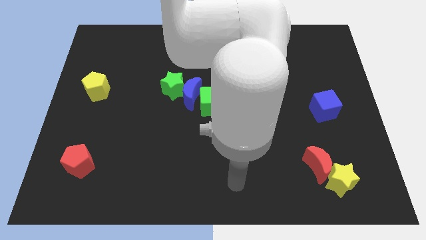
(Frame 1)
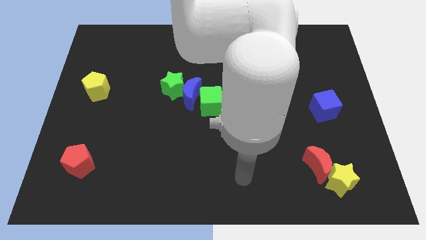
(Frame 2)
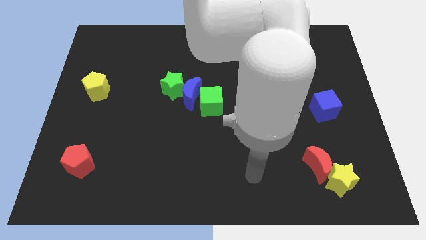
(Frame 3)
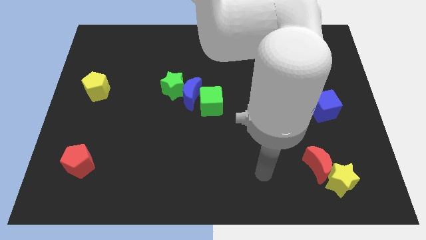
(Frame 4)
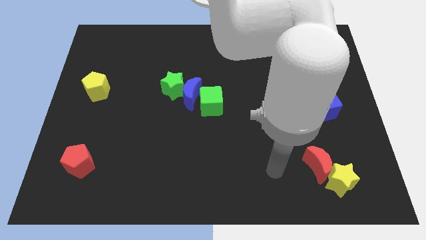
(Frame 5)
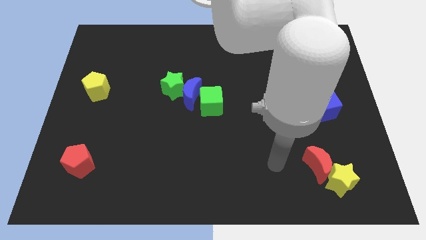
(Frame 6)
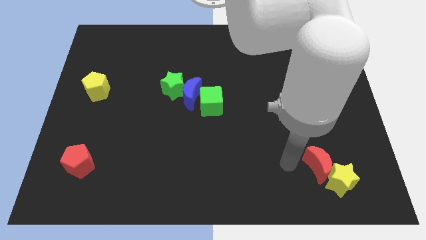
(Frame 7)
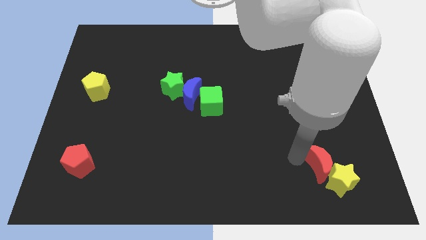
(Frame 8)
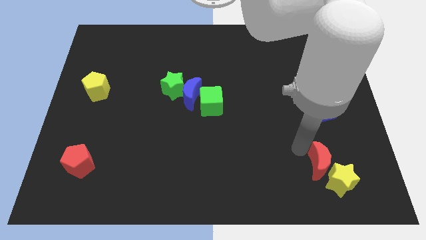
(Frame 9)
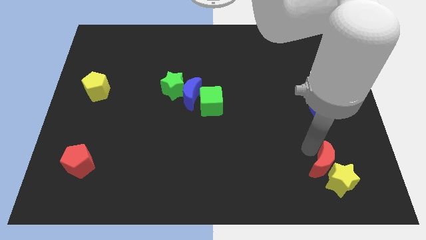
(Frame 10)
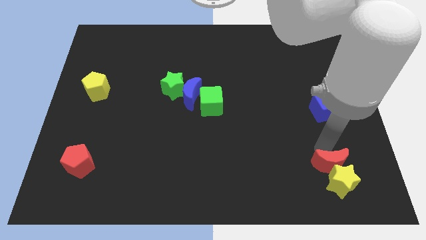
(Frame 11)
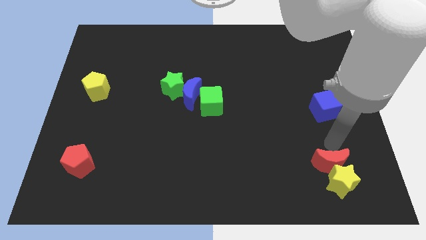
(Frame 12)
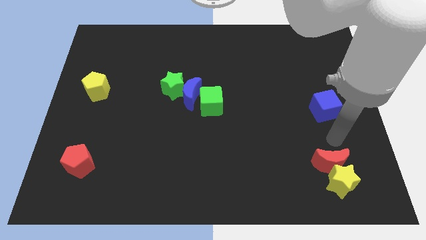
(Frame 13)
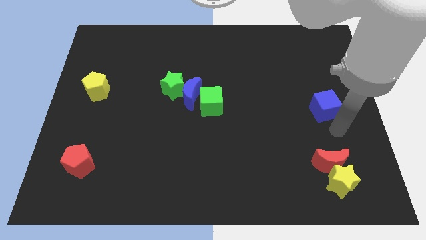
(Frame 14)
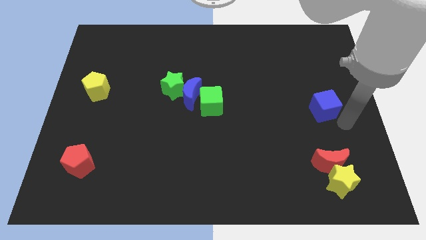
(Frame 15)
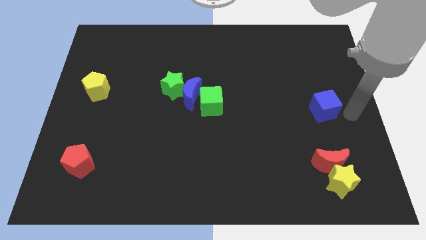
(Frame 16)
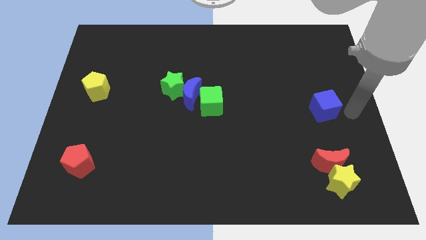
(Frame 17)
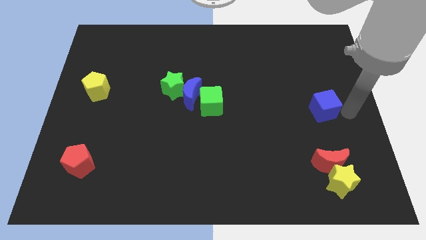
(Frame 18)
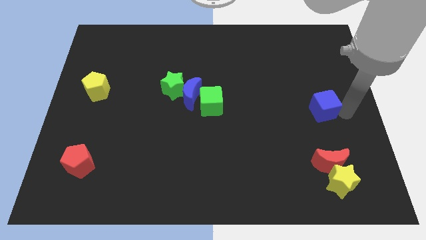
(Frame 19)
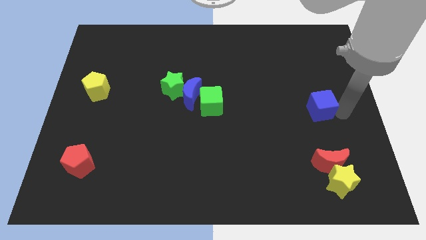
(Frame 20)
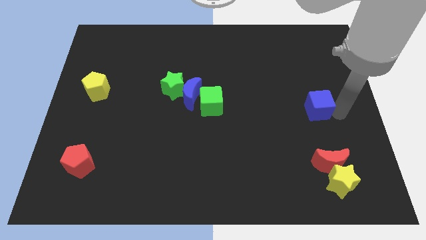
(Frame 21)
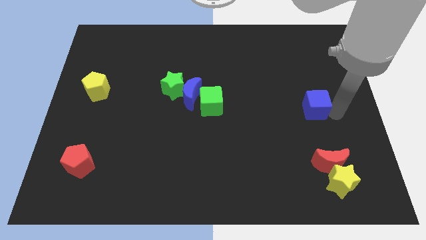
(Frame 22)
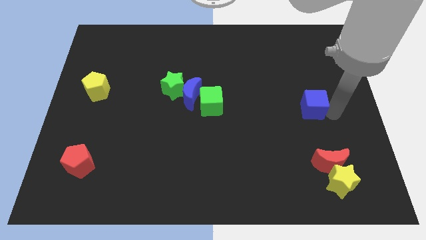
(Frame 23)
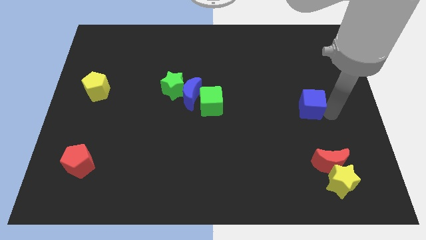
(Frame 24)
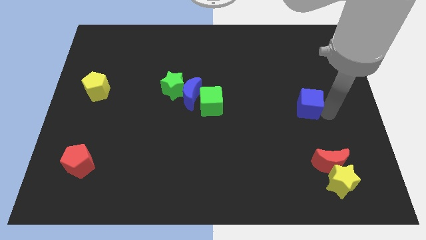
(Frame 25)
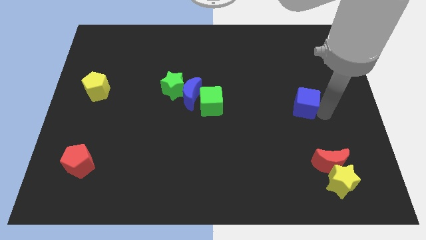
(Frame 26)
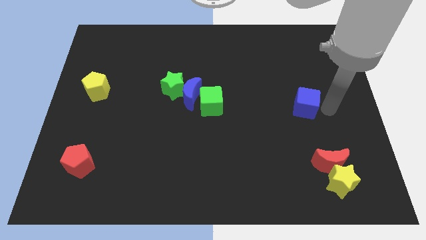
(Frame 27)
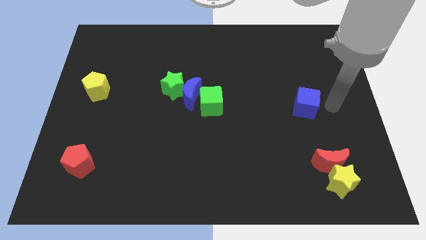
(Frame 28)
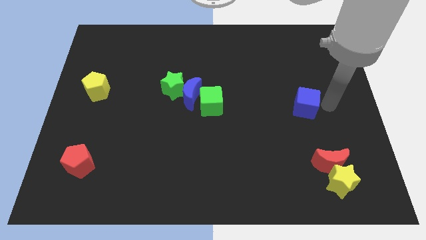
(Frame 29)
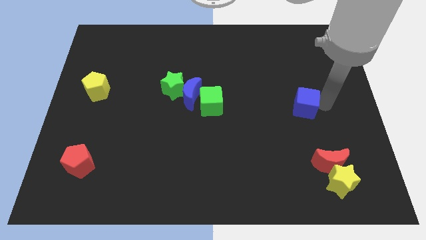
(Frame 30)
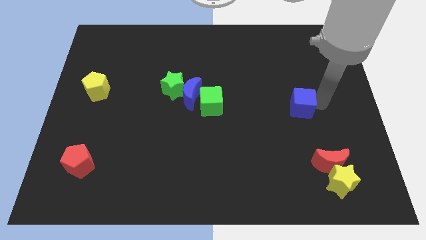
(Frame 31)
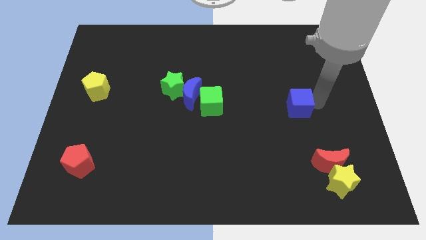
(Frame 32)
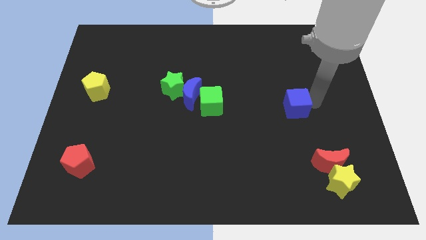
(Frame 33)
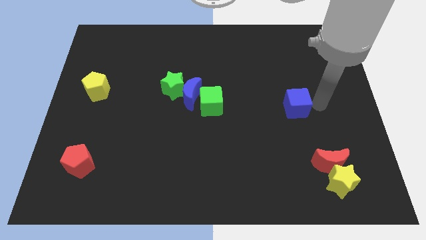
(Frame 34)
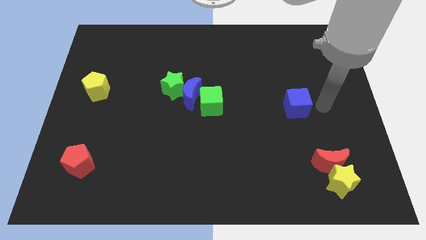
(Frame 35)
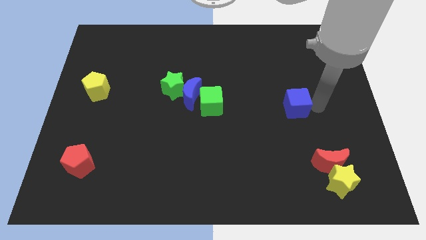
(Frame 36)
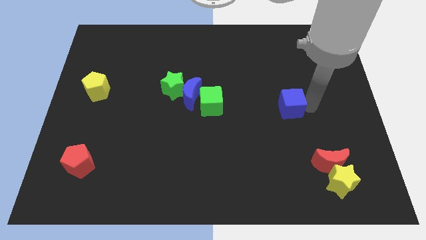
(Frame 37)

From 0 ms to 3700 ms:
move the blue cube slightly left

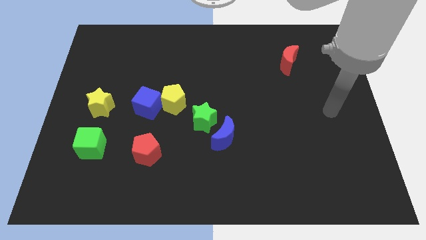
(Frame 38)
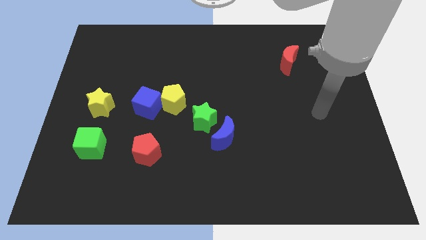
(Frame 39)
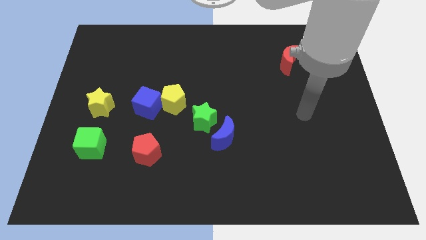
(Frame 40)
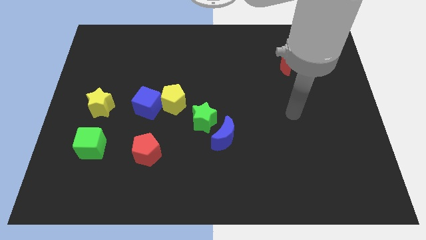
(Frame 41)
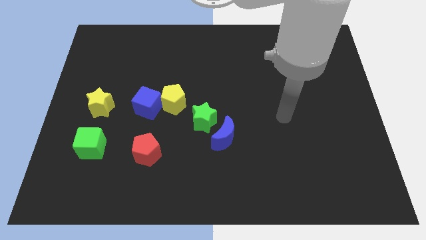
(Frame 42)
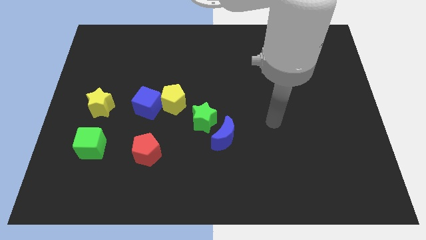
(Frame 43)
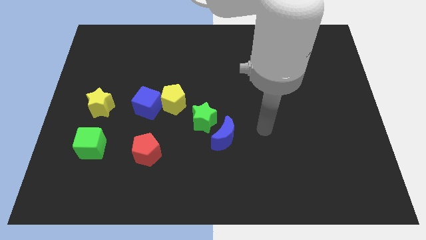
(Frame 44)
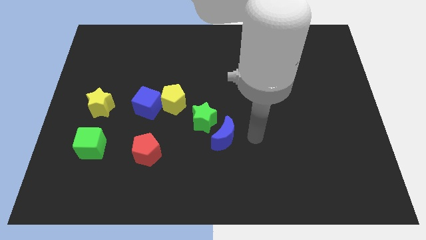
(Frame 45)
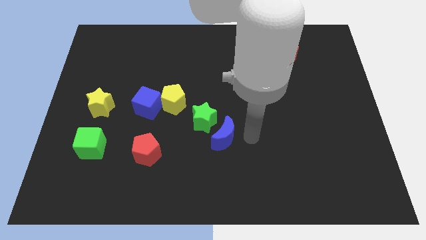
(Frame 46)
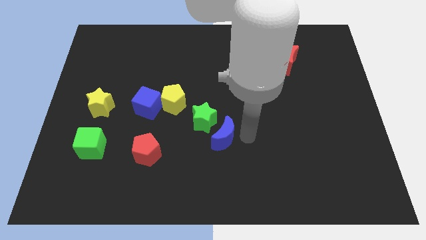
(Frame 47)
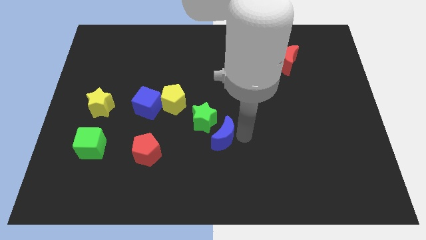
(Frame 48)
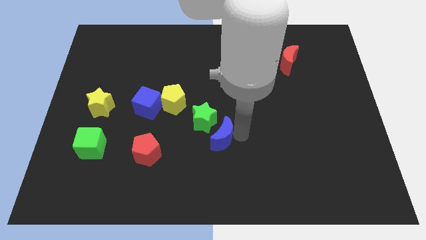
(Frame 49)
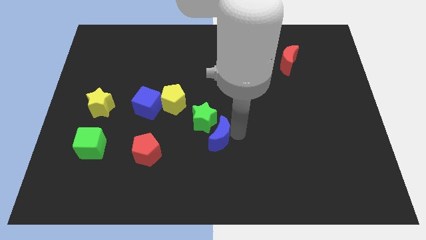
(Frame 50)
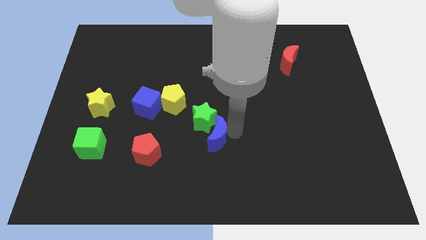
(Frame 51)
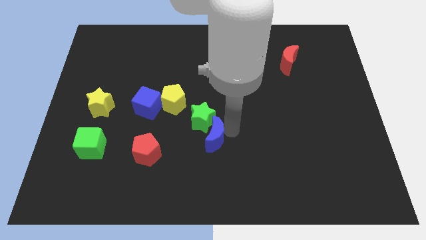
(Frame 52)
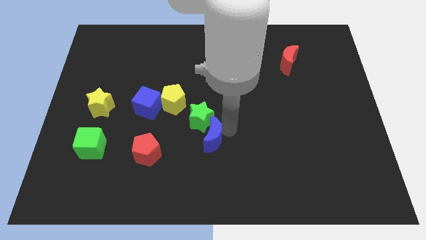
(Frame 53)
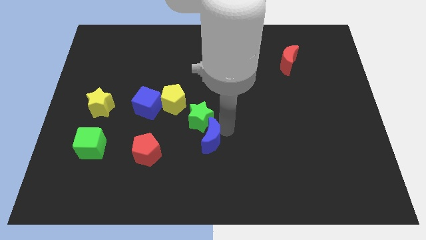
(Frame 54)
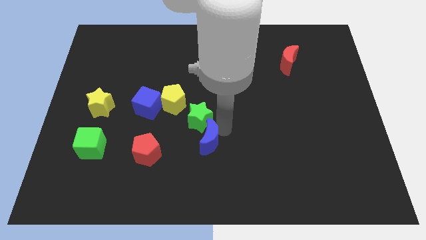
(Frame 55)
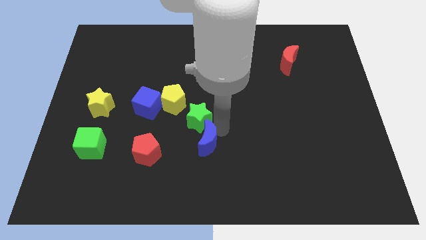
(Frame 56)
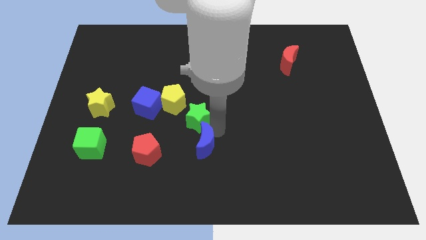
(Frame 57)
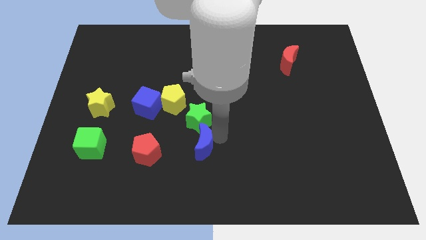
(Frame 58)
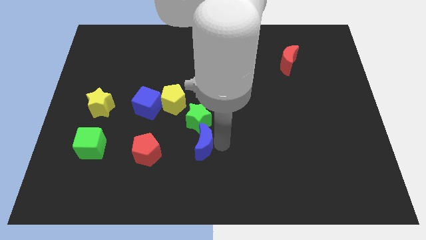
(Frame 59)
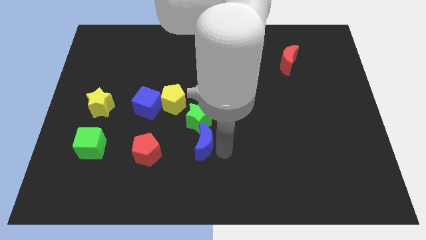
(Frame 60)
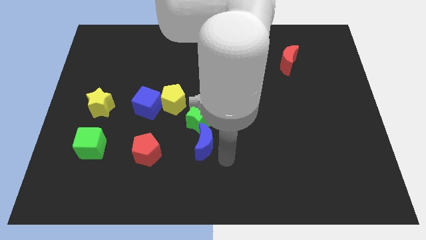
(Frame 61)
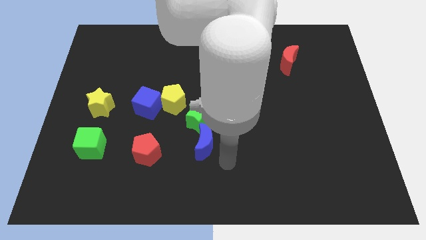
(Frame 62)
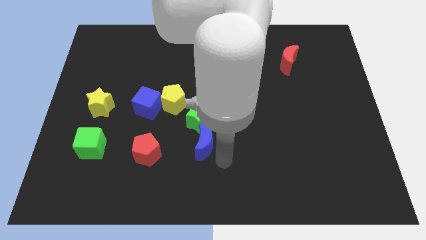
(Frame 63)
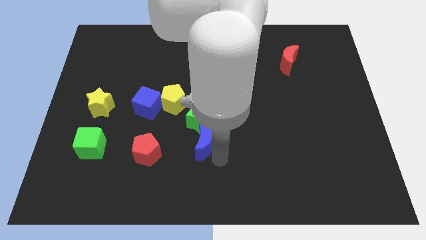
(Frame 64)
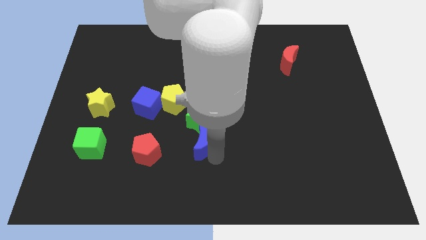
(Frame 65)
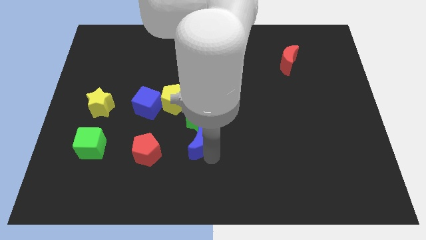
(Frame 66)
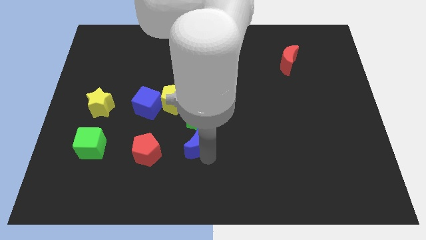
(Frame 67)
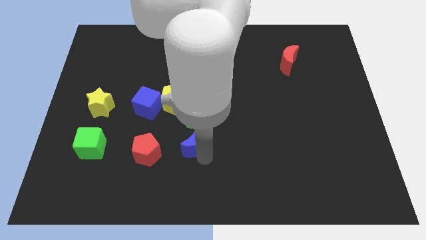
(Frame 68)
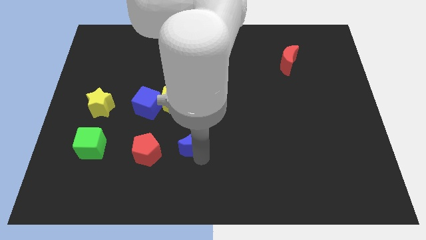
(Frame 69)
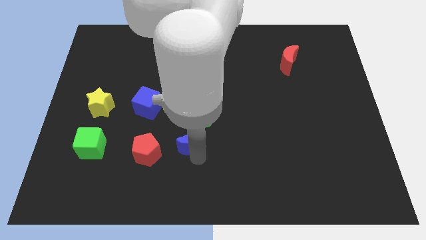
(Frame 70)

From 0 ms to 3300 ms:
push the blue moon a little to the left

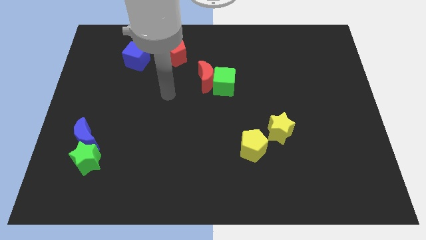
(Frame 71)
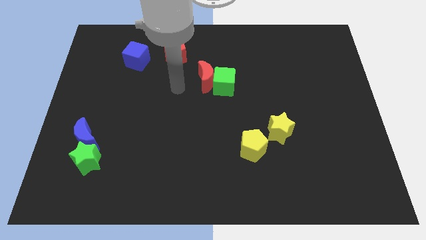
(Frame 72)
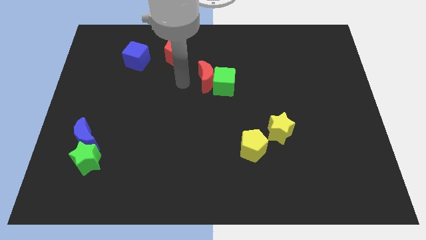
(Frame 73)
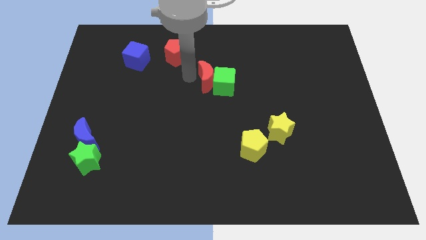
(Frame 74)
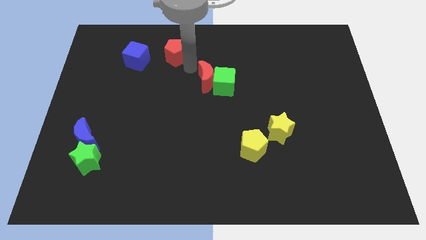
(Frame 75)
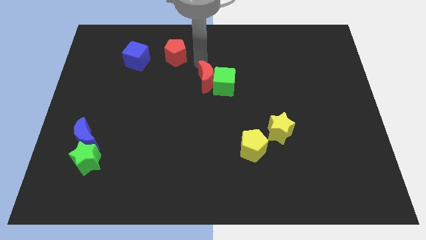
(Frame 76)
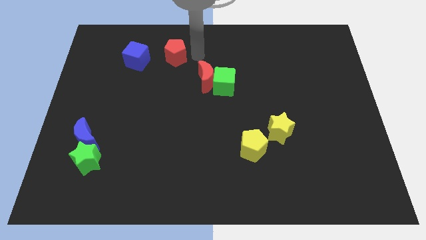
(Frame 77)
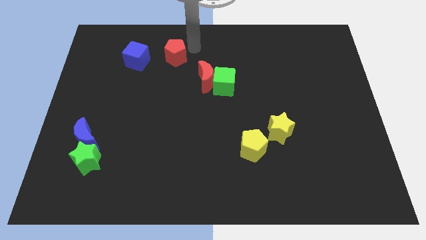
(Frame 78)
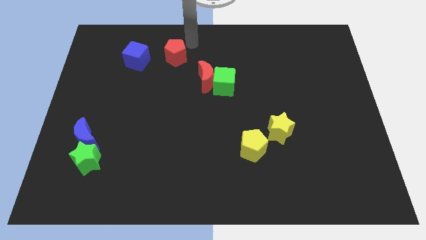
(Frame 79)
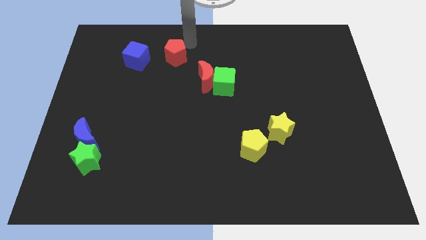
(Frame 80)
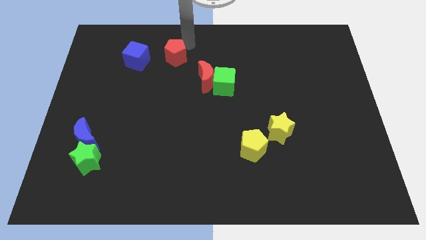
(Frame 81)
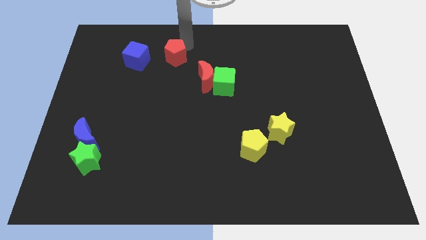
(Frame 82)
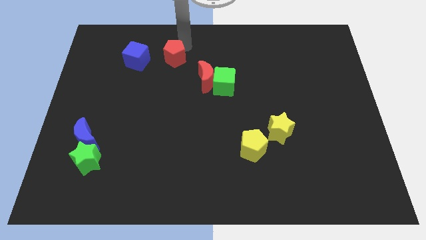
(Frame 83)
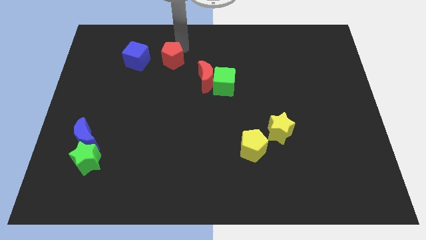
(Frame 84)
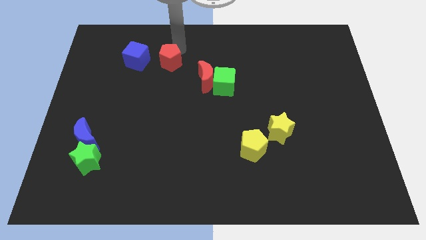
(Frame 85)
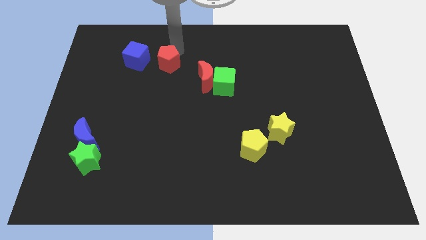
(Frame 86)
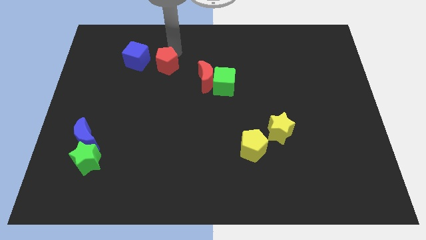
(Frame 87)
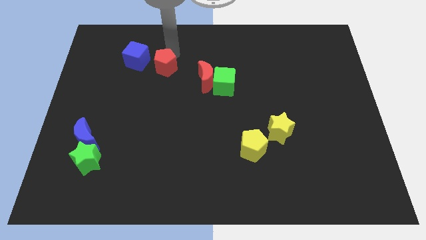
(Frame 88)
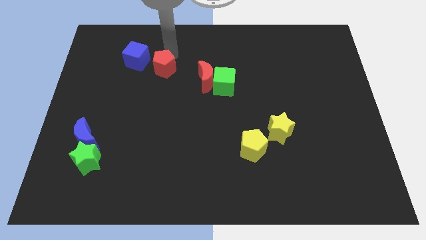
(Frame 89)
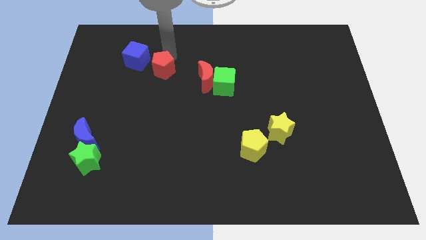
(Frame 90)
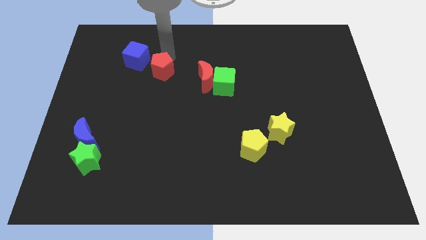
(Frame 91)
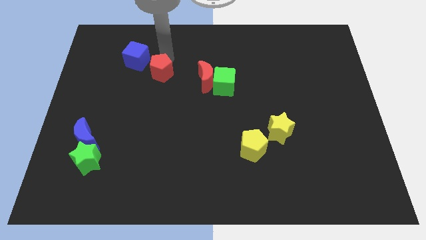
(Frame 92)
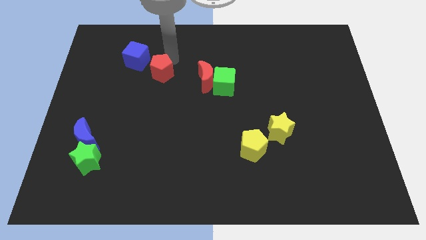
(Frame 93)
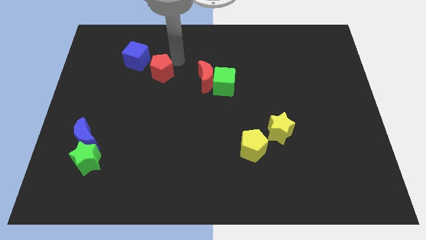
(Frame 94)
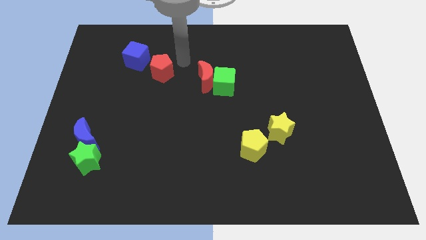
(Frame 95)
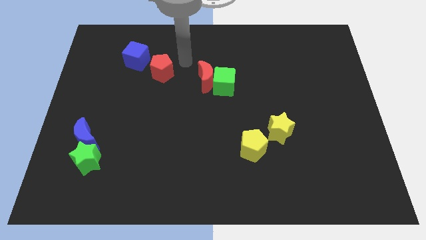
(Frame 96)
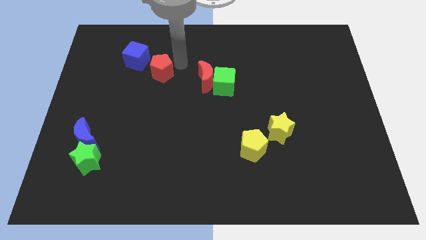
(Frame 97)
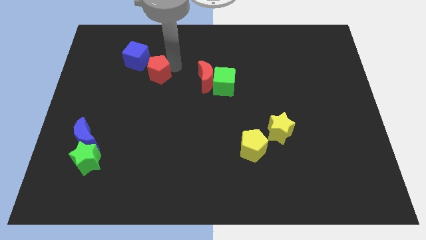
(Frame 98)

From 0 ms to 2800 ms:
slide the red pentagon diagonally downwards and left a little bit
